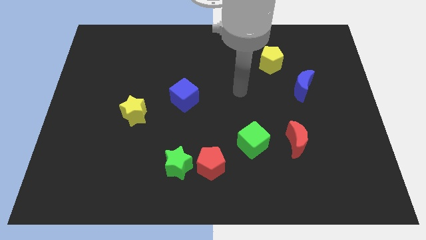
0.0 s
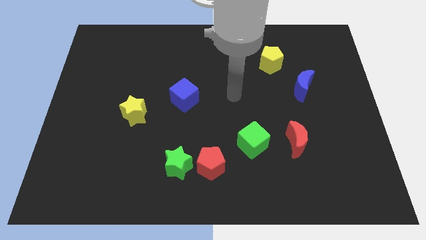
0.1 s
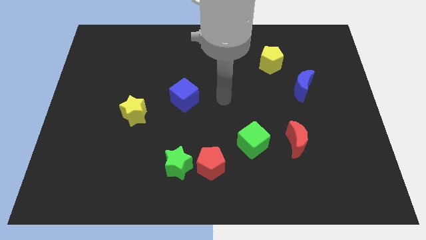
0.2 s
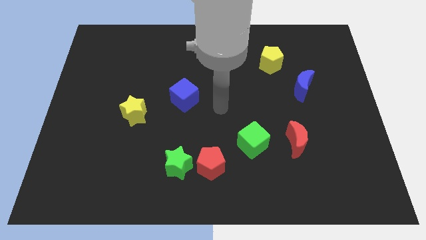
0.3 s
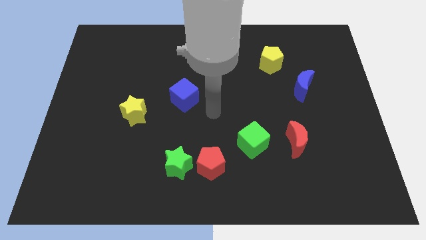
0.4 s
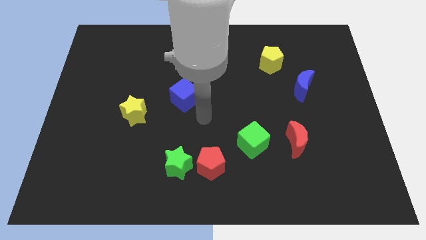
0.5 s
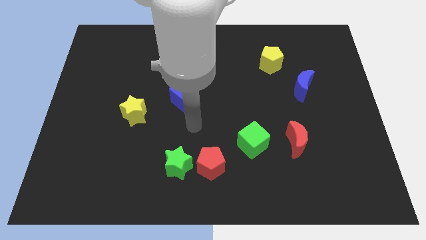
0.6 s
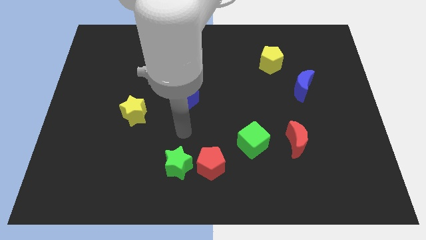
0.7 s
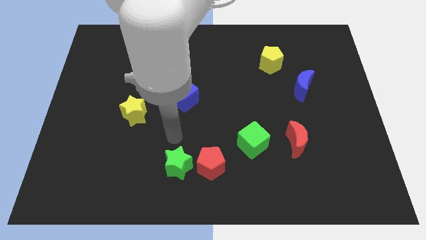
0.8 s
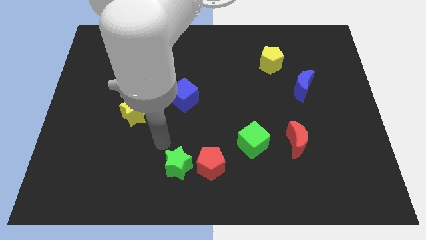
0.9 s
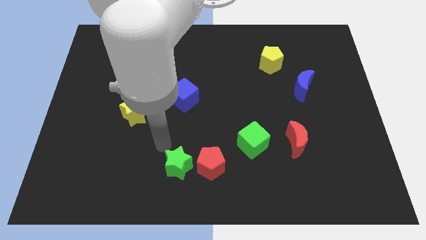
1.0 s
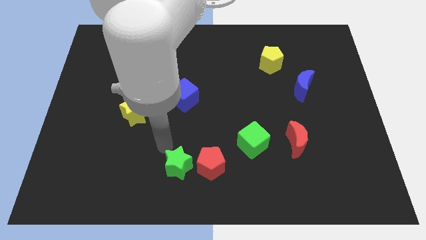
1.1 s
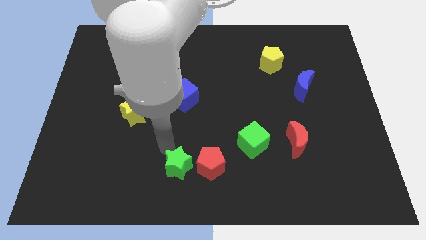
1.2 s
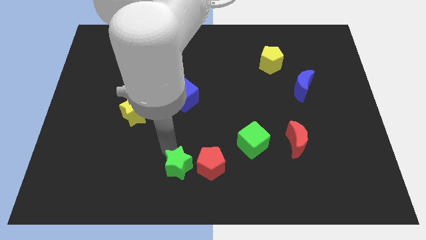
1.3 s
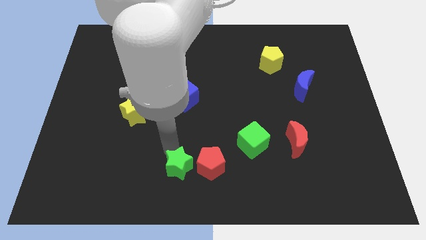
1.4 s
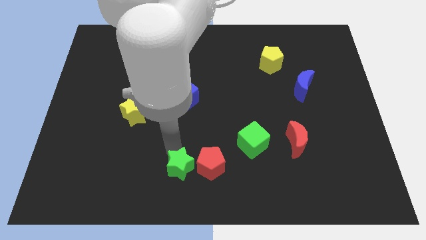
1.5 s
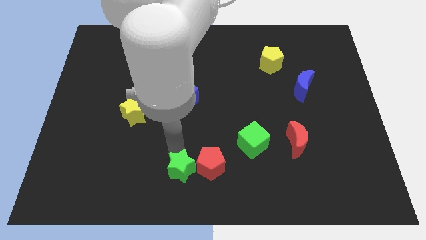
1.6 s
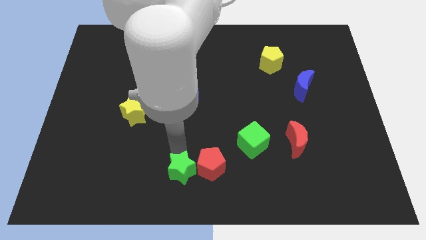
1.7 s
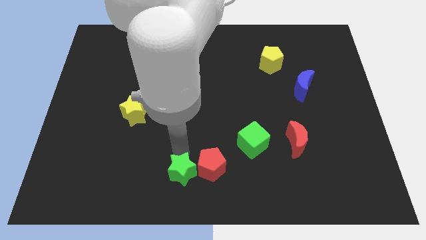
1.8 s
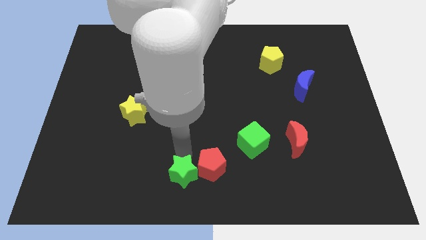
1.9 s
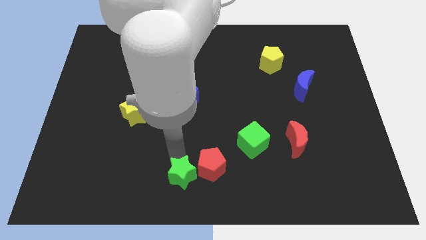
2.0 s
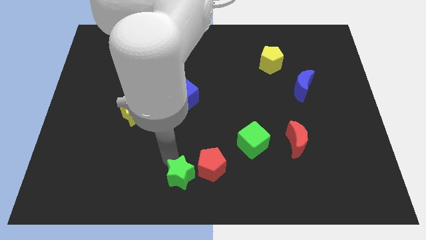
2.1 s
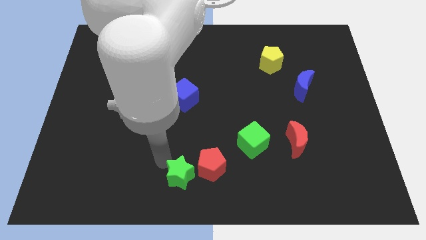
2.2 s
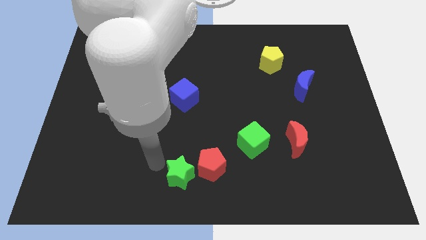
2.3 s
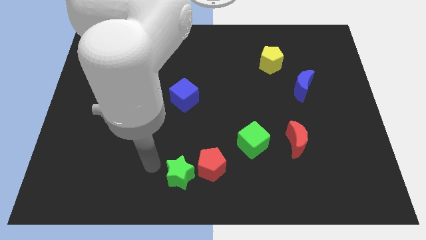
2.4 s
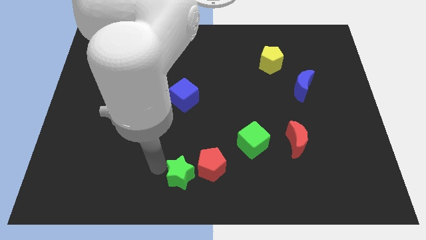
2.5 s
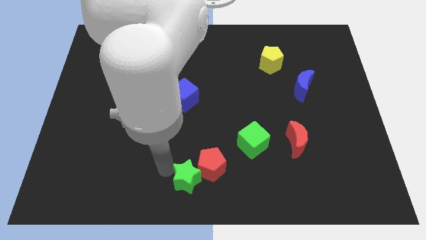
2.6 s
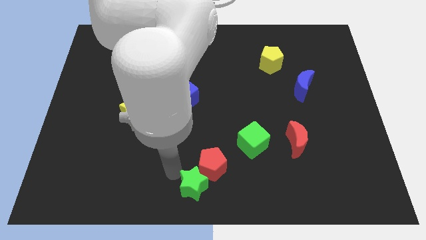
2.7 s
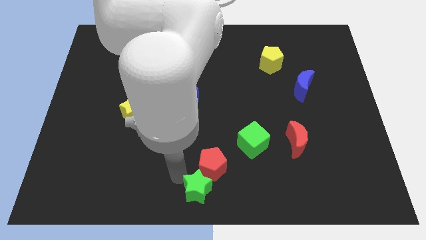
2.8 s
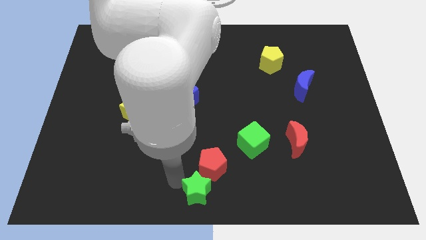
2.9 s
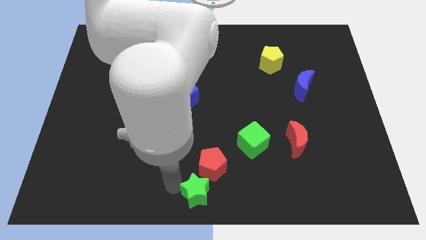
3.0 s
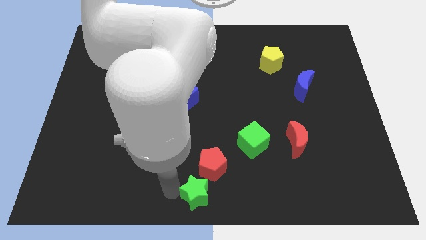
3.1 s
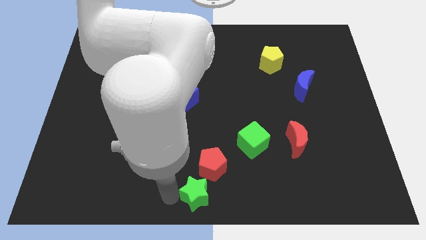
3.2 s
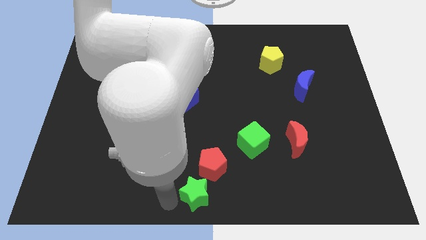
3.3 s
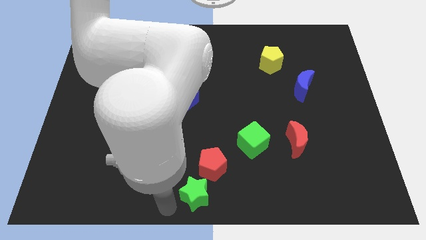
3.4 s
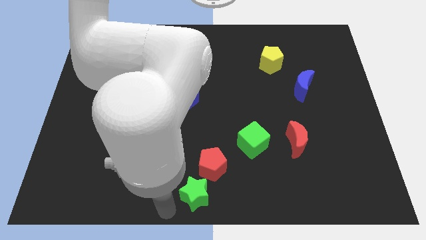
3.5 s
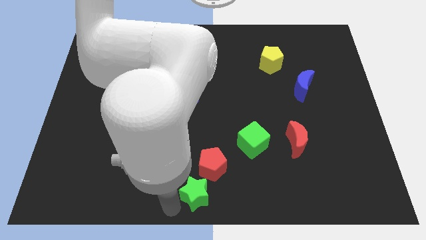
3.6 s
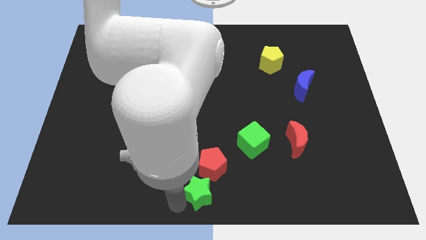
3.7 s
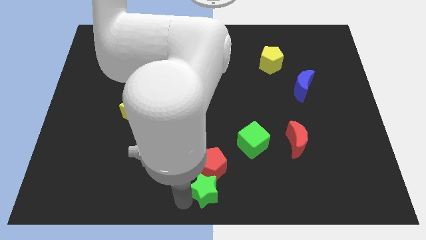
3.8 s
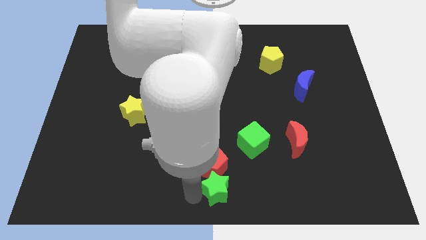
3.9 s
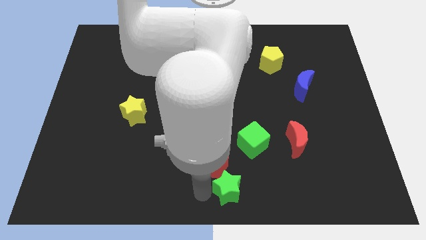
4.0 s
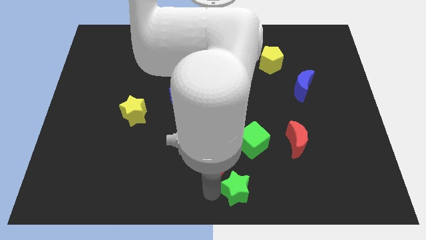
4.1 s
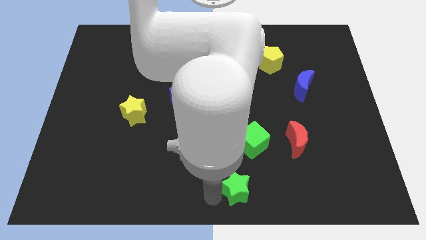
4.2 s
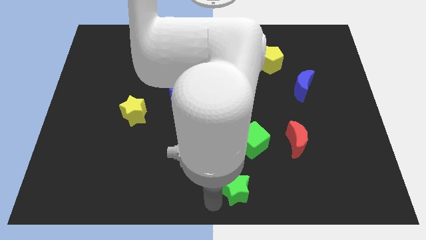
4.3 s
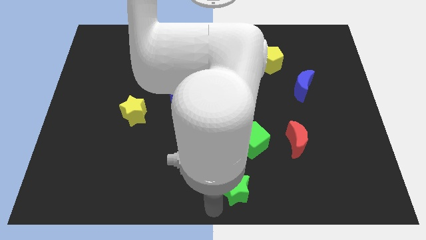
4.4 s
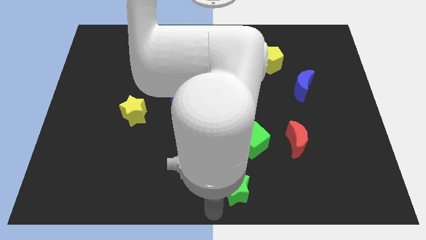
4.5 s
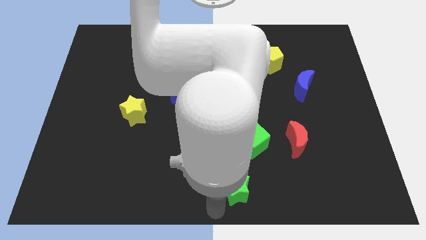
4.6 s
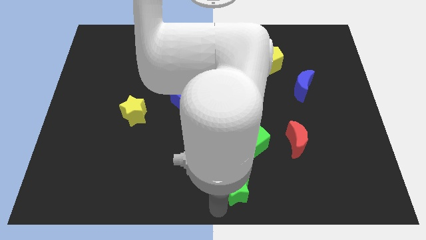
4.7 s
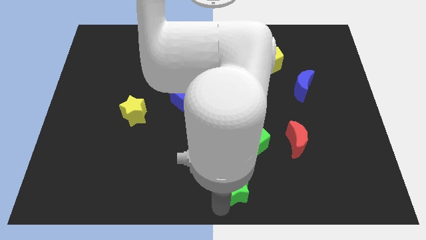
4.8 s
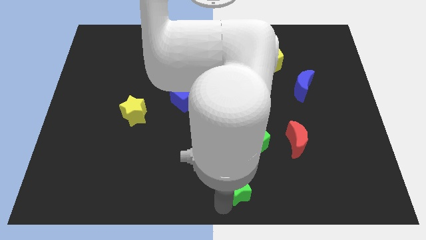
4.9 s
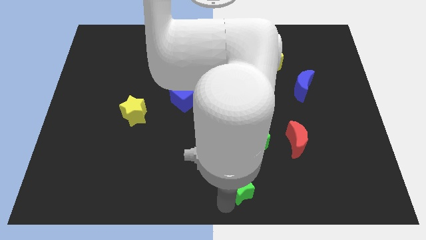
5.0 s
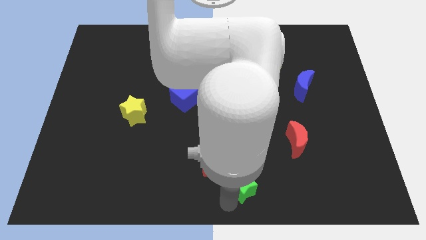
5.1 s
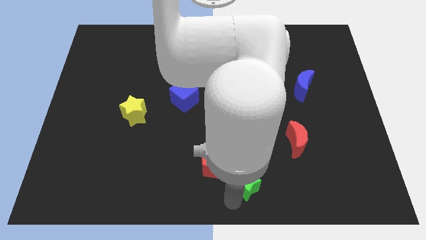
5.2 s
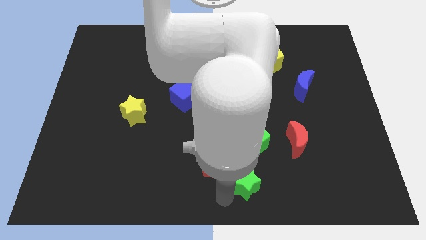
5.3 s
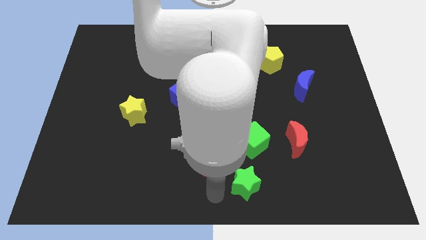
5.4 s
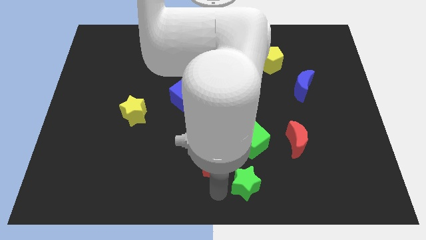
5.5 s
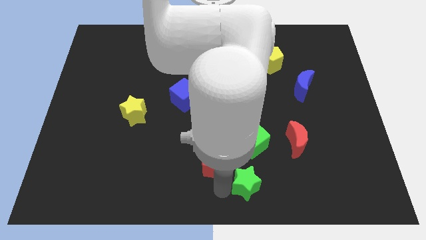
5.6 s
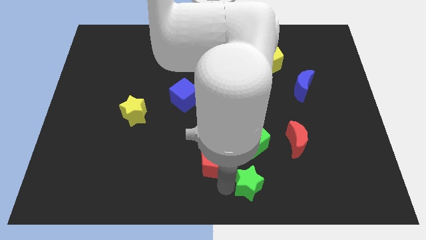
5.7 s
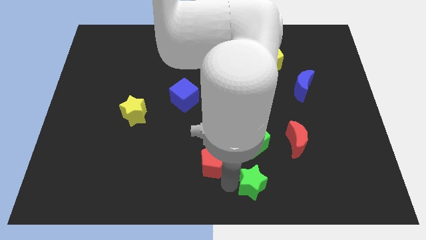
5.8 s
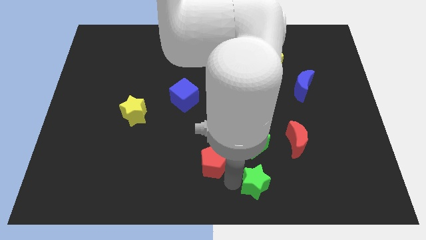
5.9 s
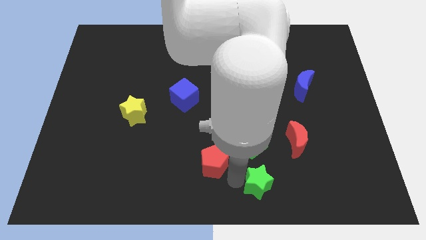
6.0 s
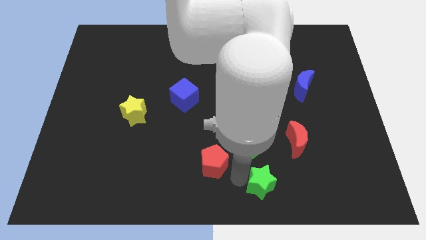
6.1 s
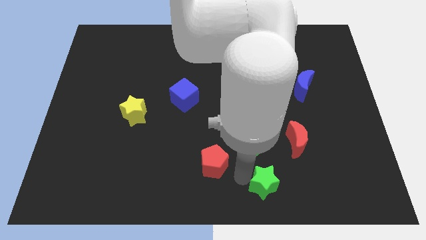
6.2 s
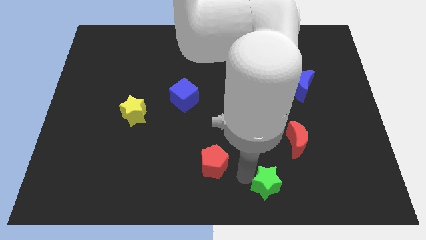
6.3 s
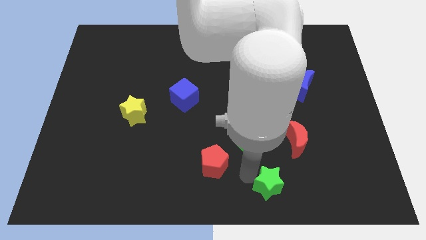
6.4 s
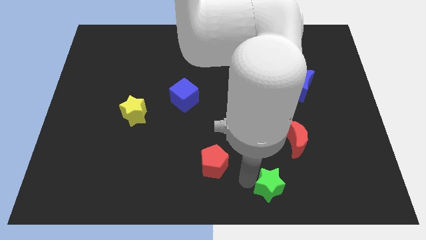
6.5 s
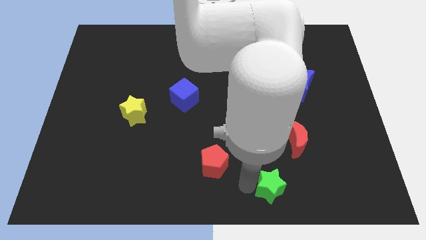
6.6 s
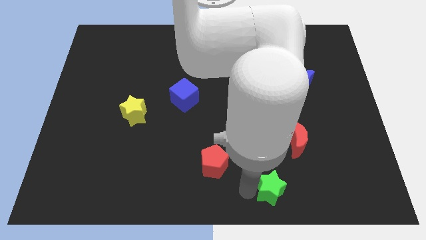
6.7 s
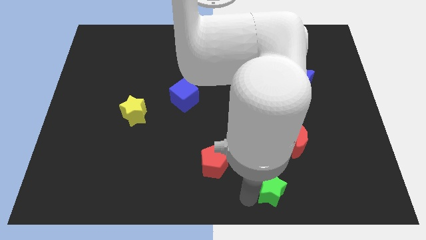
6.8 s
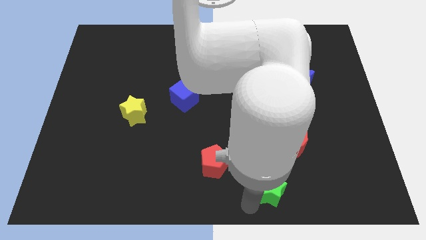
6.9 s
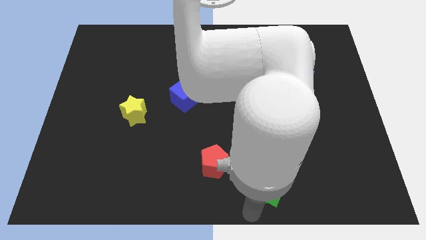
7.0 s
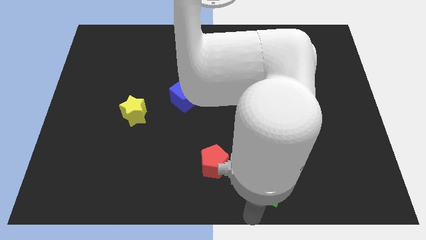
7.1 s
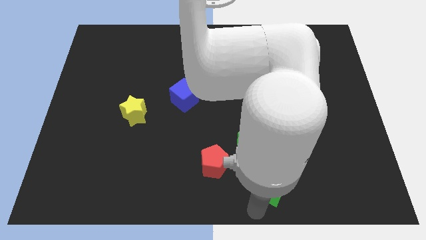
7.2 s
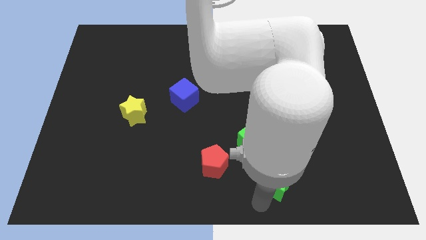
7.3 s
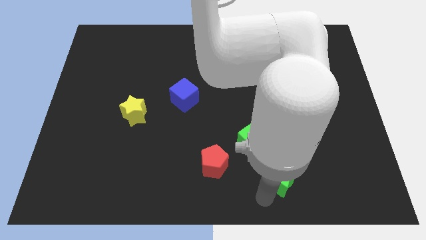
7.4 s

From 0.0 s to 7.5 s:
move the green star to the right

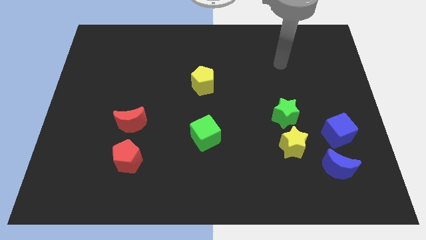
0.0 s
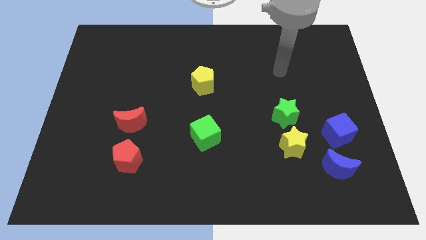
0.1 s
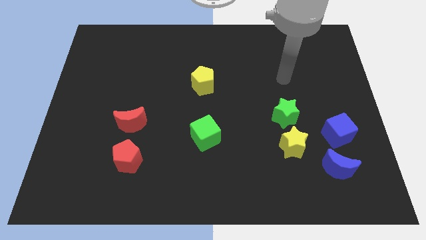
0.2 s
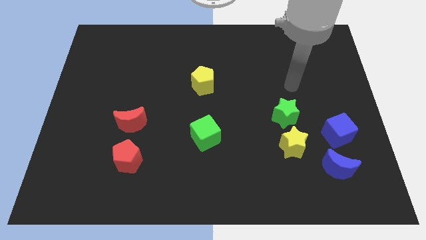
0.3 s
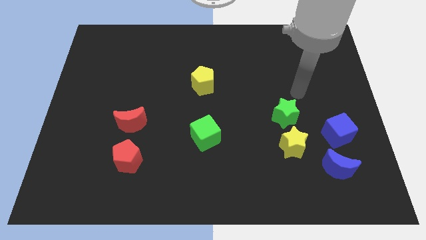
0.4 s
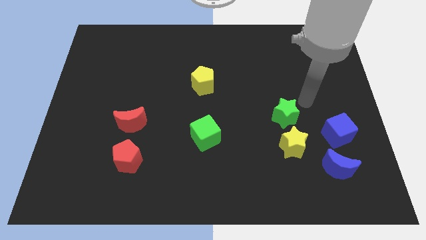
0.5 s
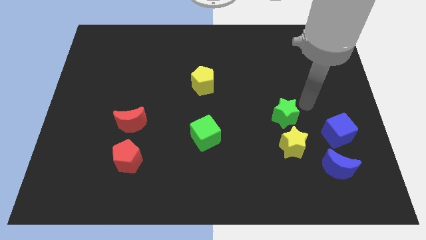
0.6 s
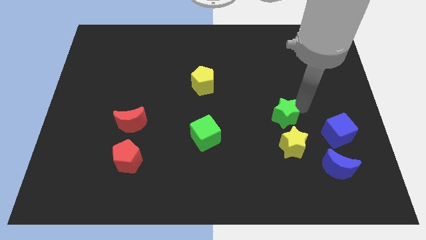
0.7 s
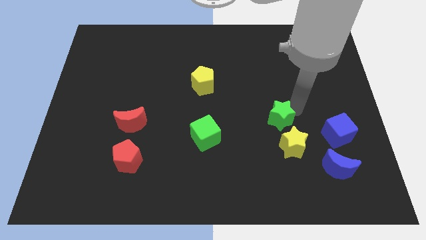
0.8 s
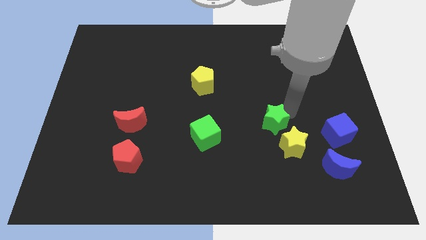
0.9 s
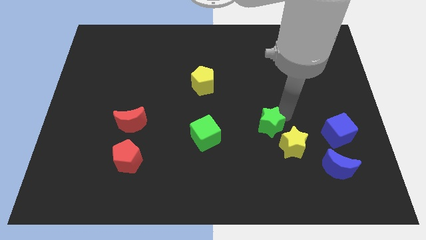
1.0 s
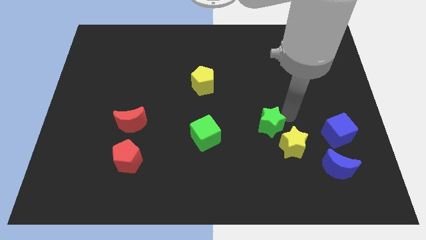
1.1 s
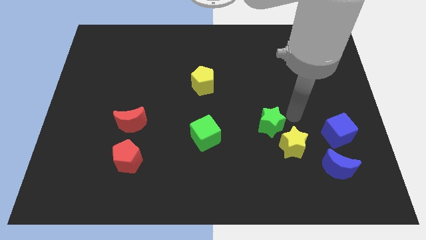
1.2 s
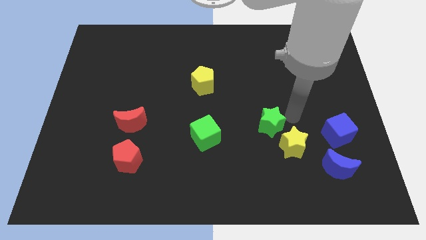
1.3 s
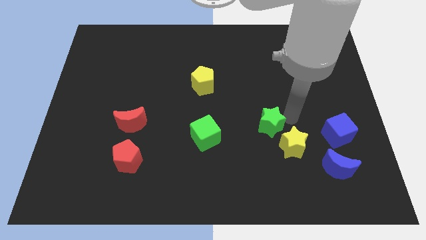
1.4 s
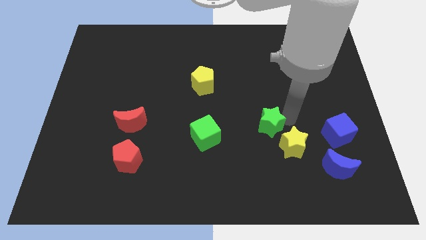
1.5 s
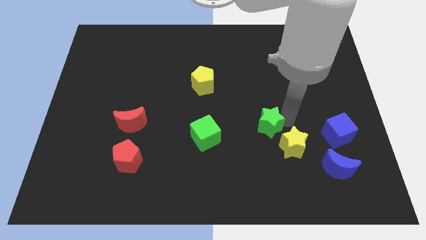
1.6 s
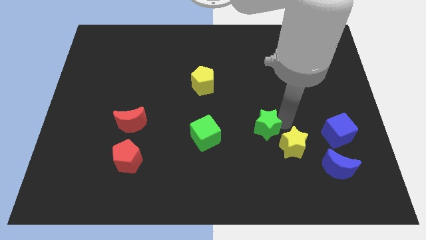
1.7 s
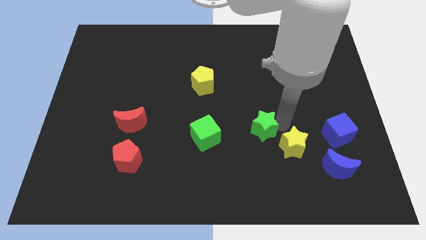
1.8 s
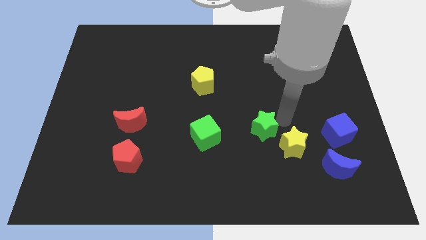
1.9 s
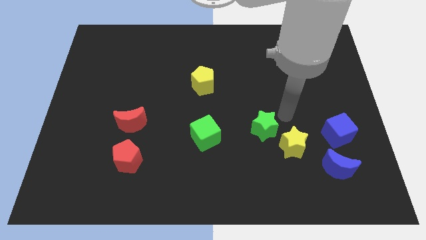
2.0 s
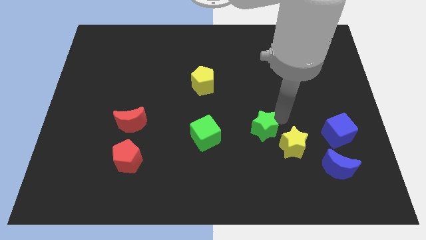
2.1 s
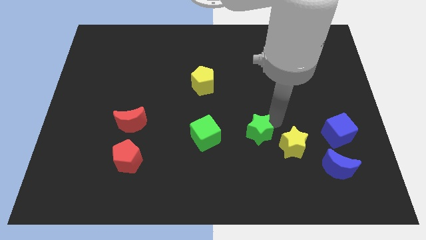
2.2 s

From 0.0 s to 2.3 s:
push the green star diagonally downwards and left a bit
